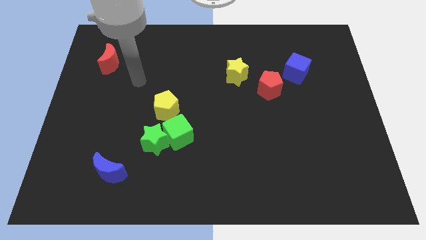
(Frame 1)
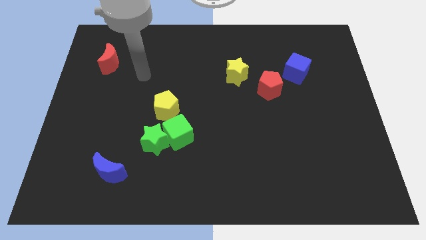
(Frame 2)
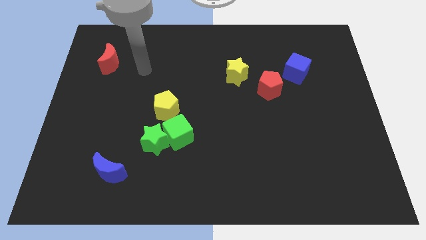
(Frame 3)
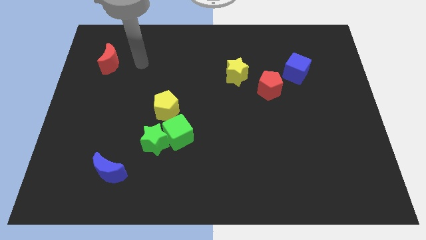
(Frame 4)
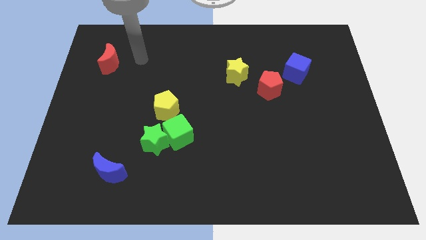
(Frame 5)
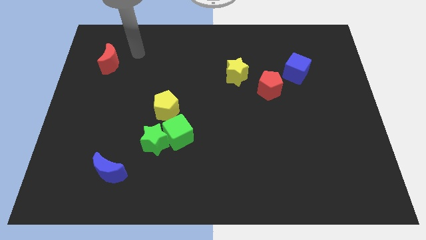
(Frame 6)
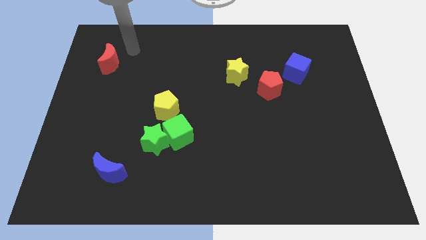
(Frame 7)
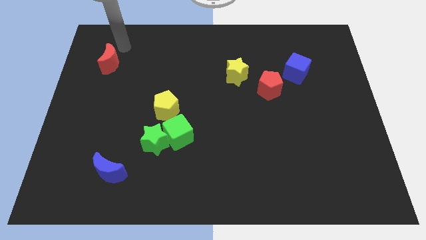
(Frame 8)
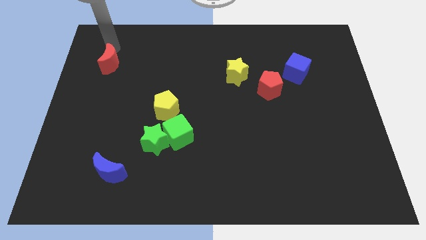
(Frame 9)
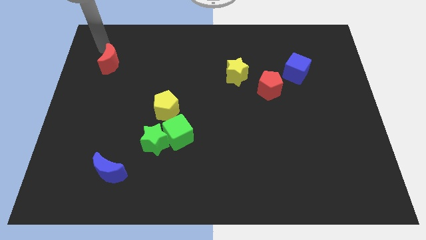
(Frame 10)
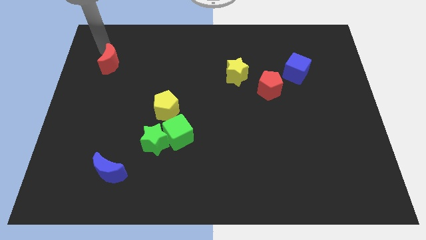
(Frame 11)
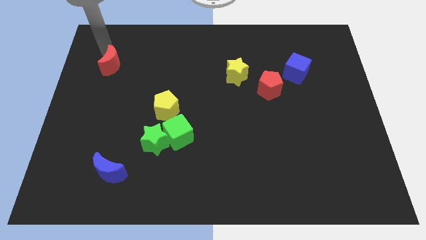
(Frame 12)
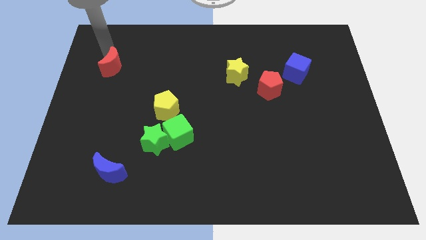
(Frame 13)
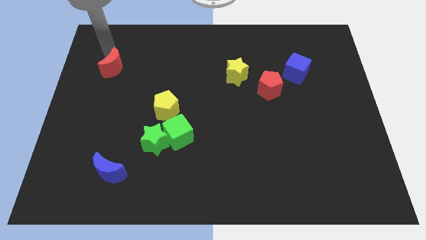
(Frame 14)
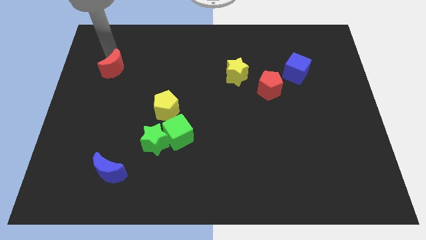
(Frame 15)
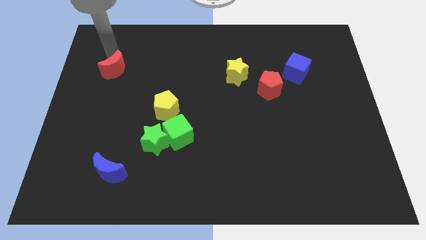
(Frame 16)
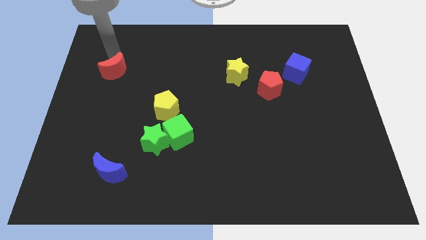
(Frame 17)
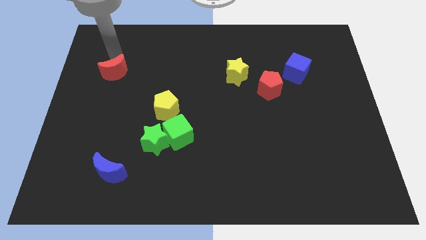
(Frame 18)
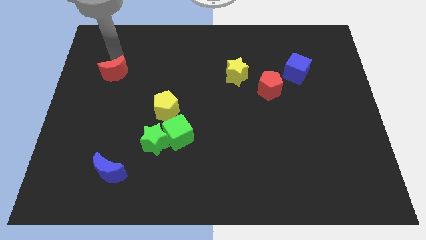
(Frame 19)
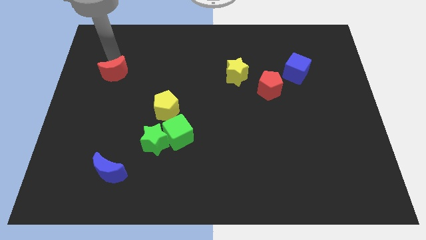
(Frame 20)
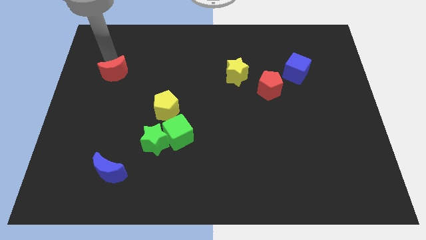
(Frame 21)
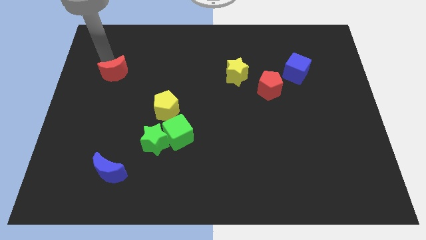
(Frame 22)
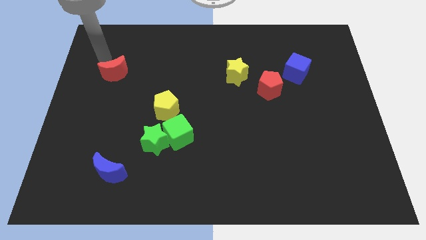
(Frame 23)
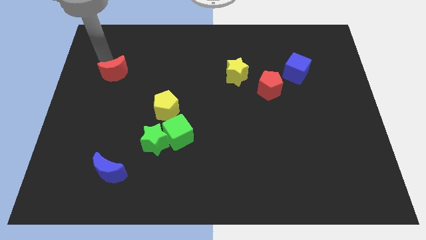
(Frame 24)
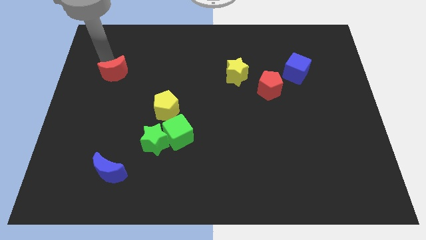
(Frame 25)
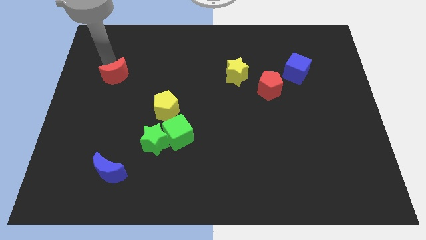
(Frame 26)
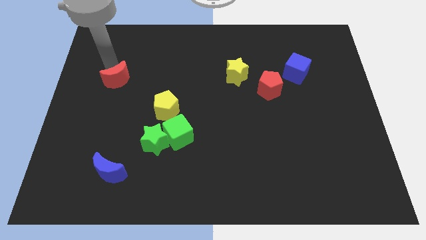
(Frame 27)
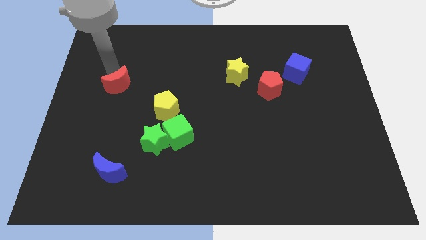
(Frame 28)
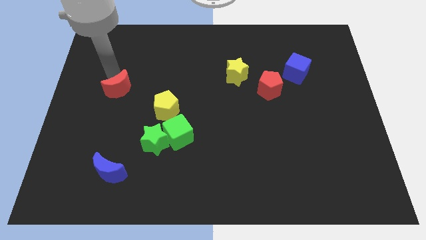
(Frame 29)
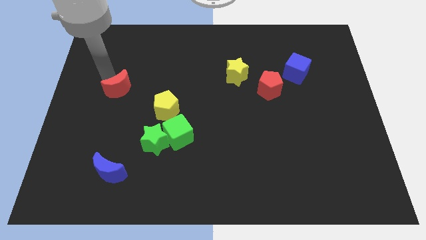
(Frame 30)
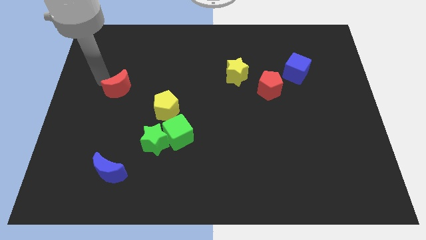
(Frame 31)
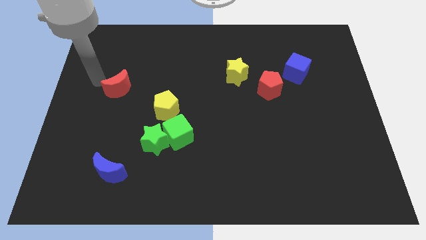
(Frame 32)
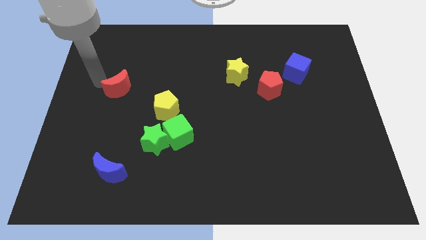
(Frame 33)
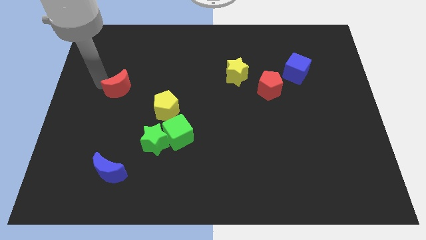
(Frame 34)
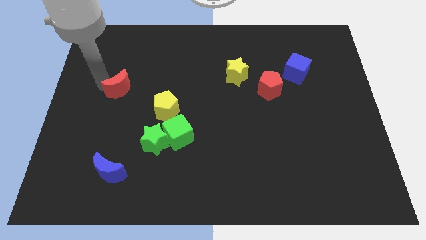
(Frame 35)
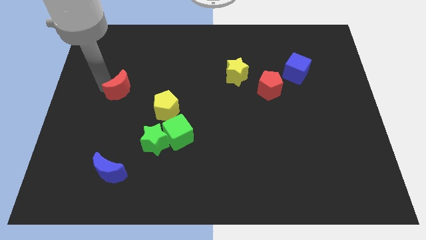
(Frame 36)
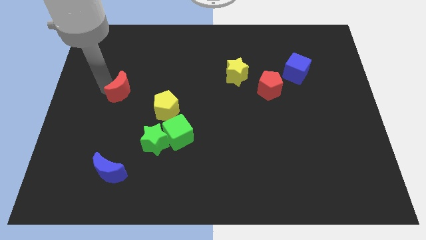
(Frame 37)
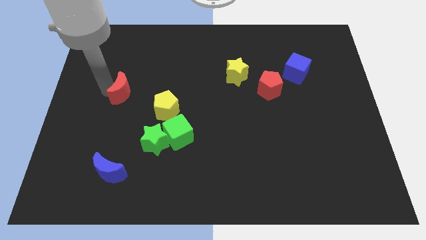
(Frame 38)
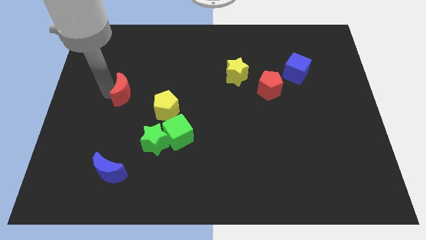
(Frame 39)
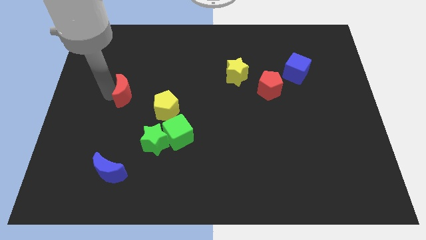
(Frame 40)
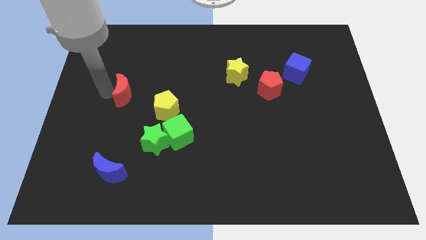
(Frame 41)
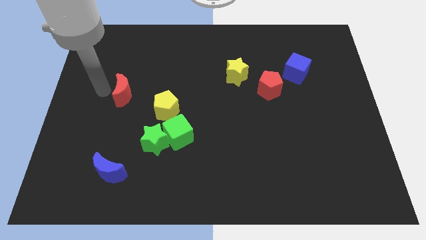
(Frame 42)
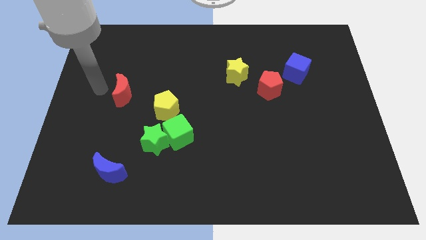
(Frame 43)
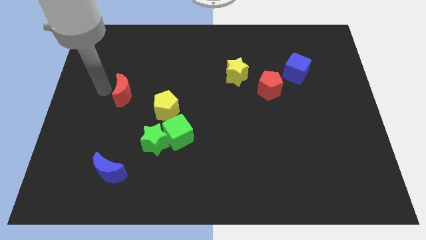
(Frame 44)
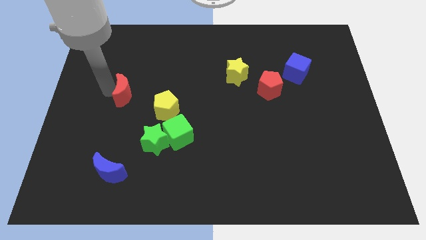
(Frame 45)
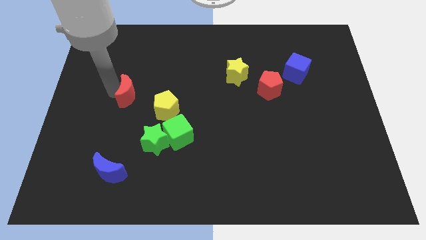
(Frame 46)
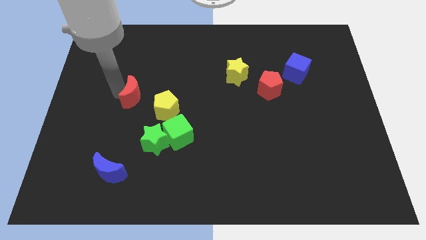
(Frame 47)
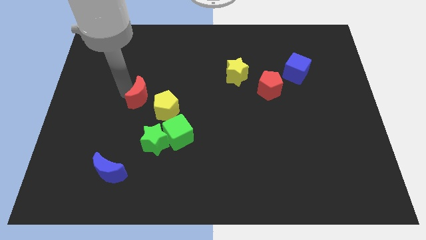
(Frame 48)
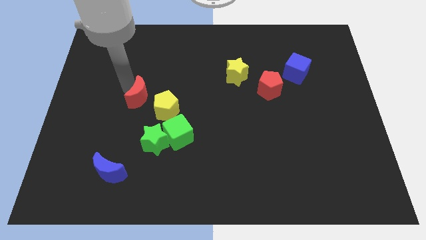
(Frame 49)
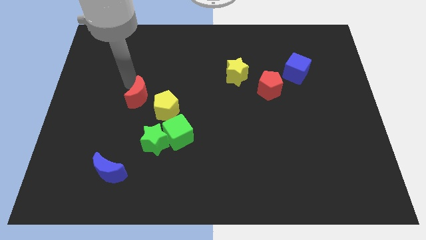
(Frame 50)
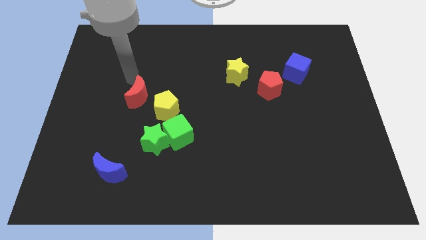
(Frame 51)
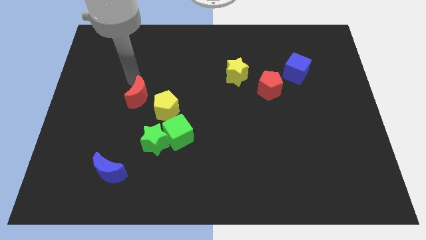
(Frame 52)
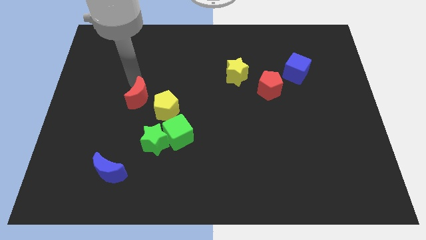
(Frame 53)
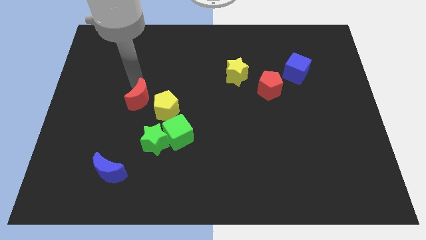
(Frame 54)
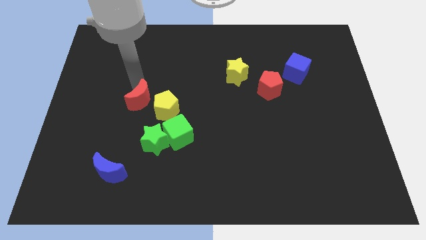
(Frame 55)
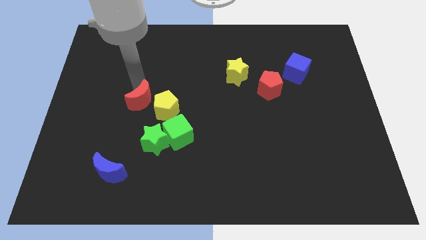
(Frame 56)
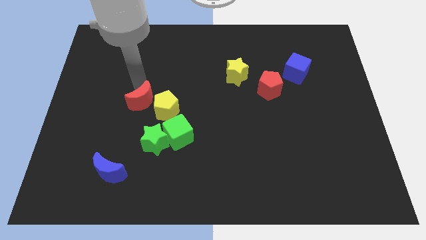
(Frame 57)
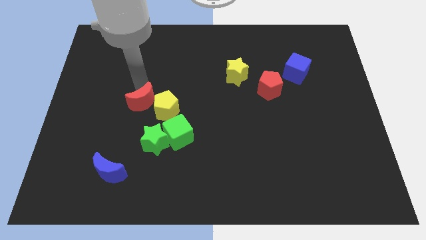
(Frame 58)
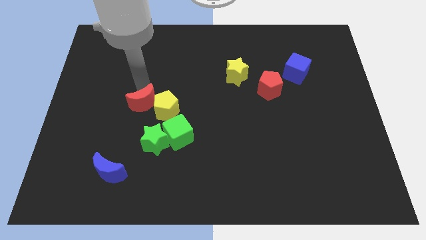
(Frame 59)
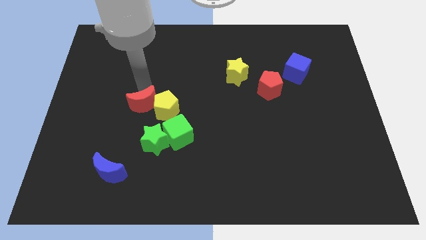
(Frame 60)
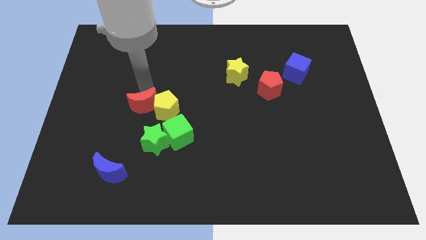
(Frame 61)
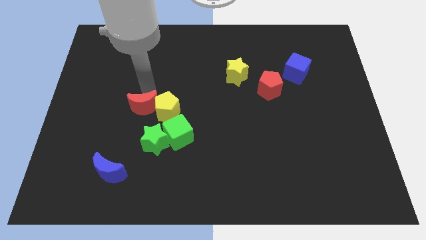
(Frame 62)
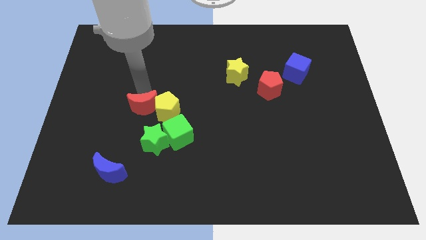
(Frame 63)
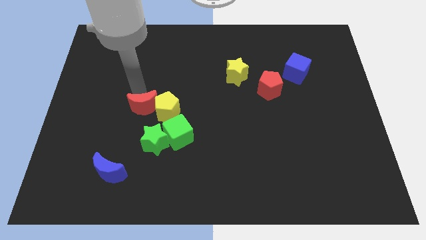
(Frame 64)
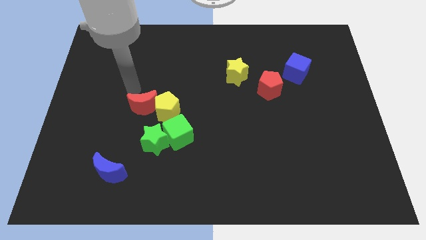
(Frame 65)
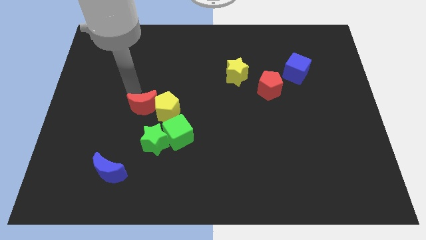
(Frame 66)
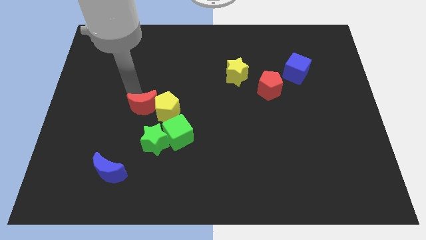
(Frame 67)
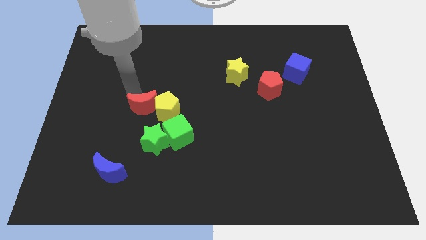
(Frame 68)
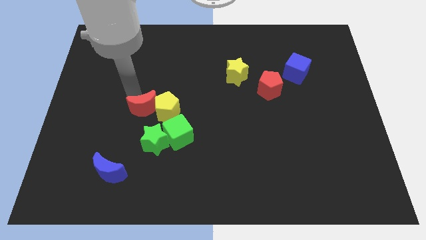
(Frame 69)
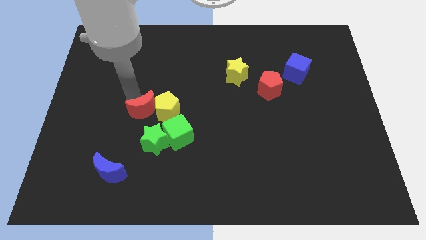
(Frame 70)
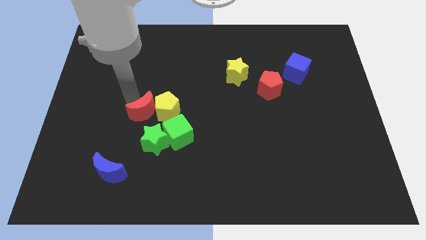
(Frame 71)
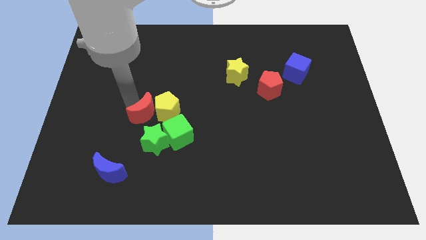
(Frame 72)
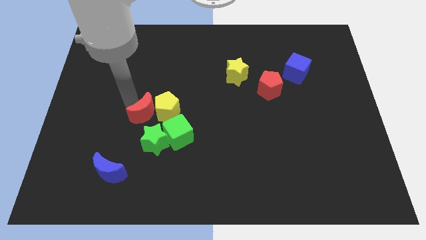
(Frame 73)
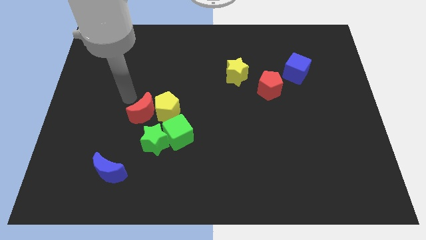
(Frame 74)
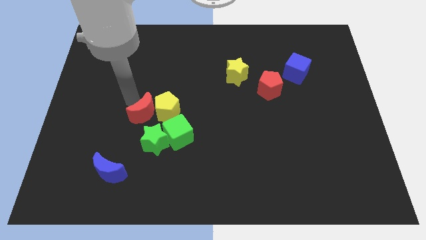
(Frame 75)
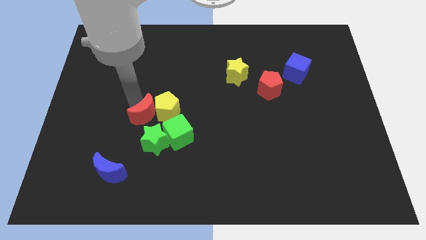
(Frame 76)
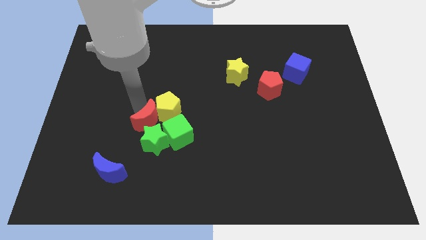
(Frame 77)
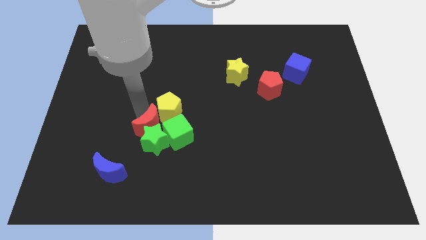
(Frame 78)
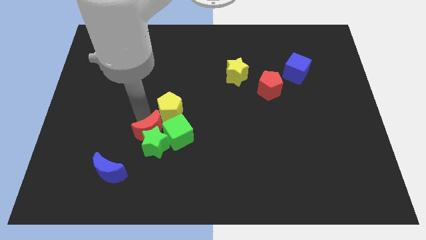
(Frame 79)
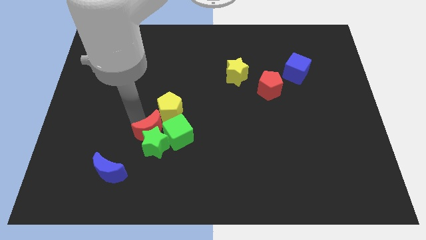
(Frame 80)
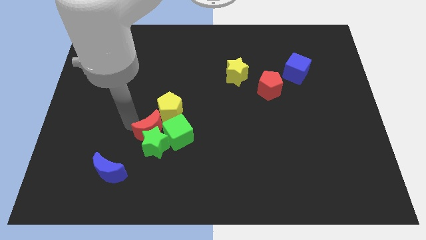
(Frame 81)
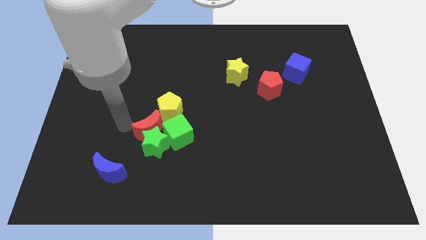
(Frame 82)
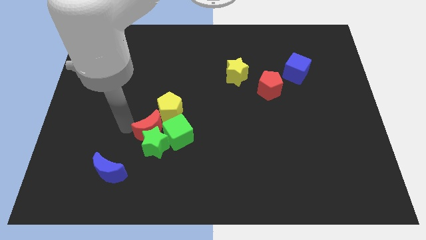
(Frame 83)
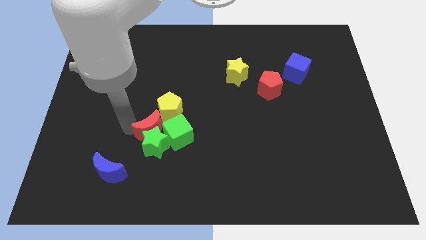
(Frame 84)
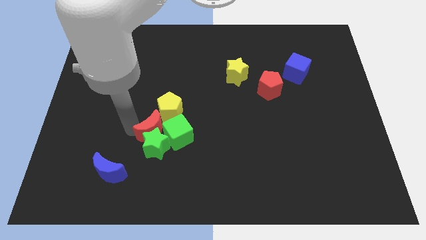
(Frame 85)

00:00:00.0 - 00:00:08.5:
slide the red moon towards the green cube
